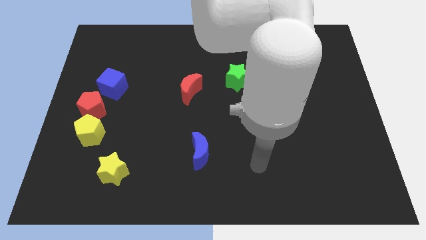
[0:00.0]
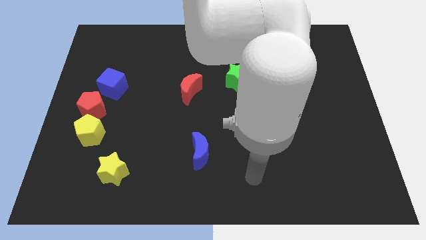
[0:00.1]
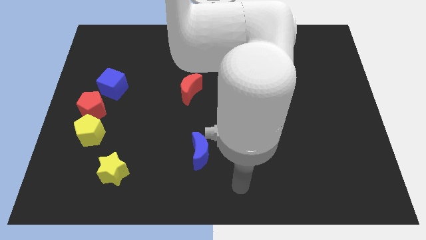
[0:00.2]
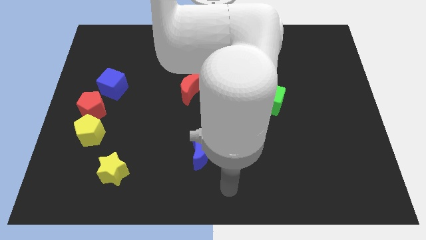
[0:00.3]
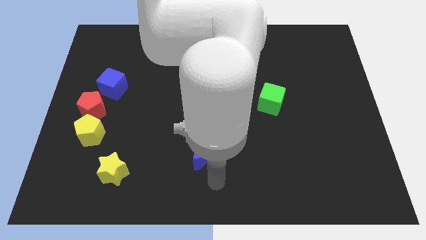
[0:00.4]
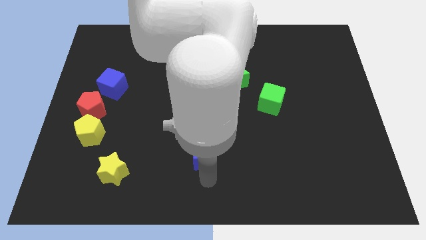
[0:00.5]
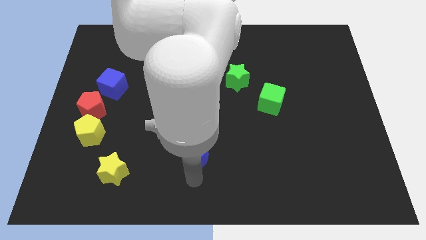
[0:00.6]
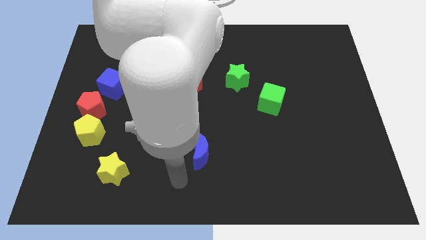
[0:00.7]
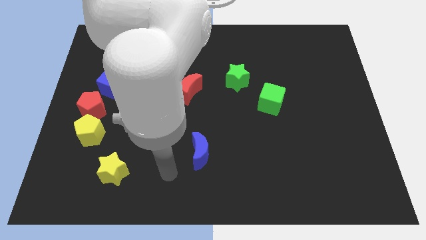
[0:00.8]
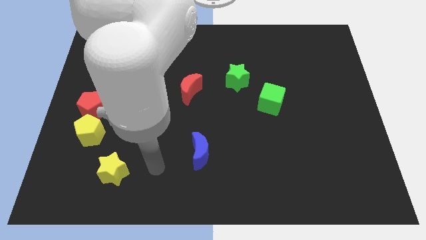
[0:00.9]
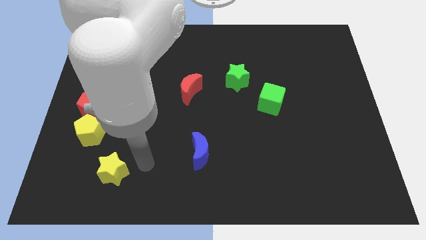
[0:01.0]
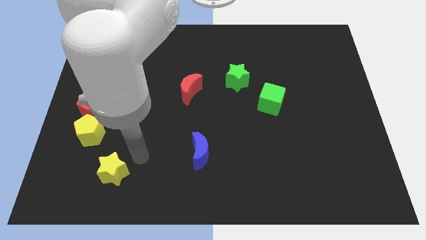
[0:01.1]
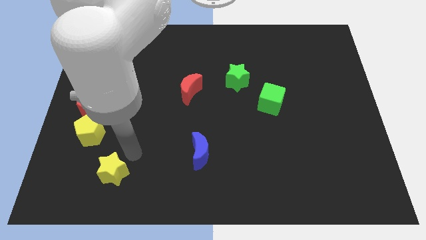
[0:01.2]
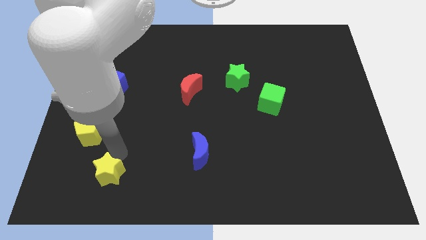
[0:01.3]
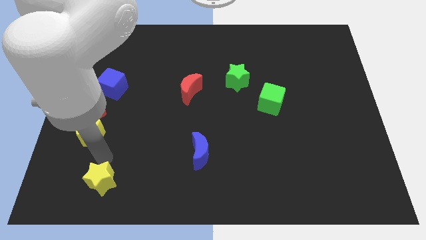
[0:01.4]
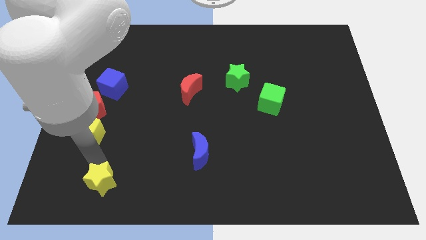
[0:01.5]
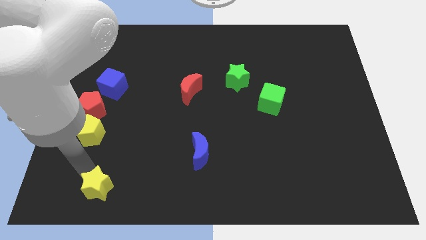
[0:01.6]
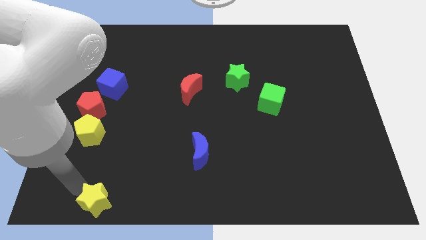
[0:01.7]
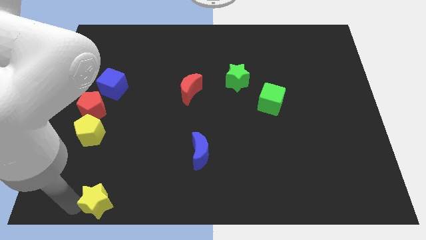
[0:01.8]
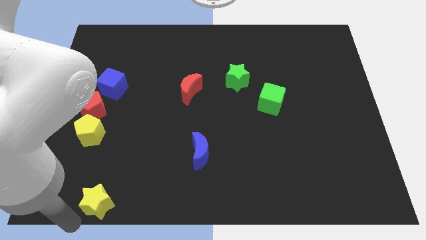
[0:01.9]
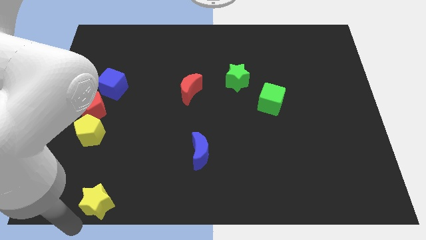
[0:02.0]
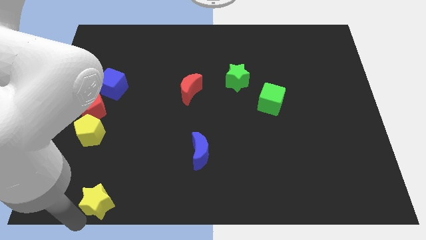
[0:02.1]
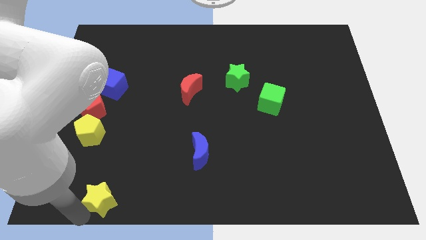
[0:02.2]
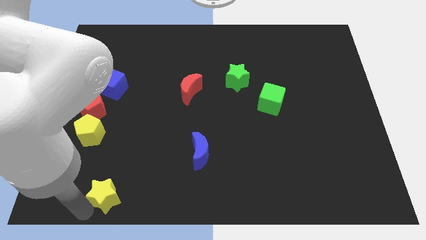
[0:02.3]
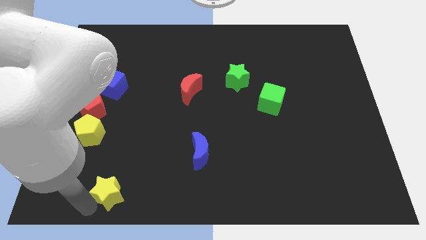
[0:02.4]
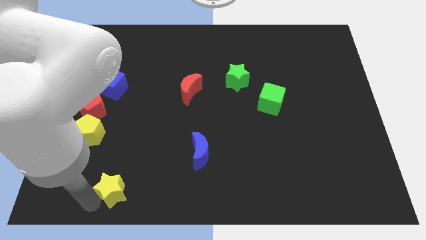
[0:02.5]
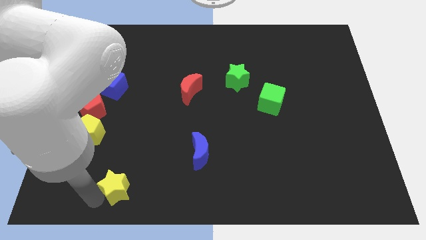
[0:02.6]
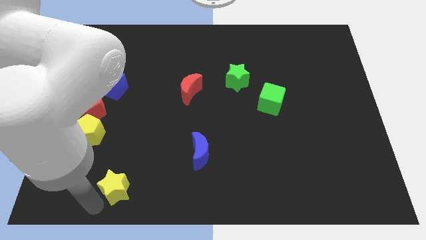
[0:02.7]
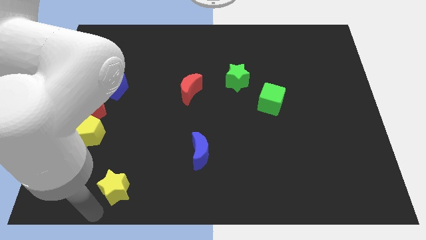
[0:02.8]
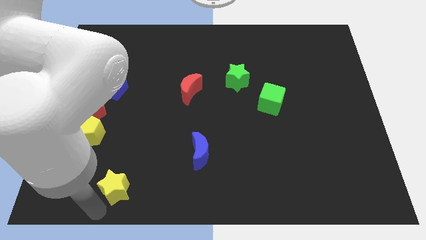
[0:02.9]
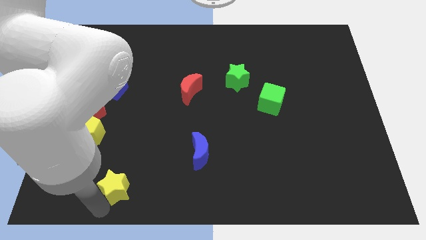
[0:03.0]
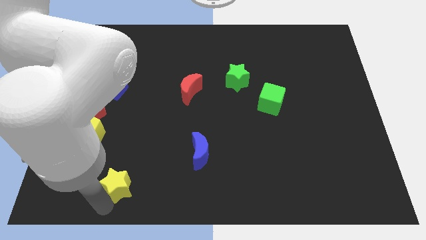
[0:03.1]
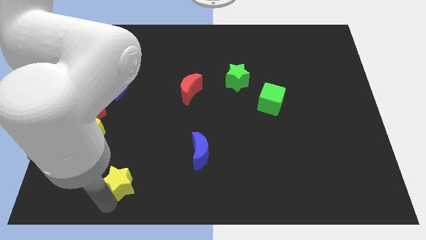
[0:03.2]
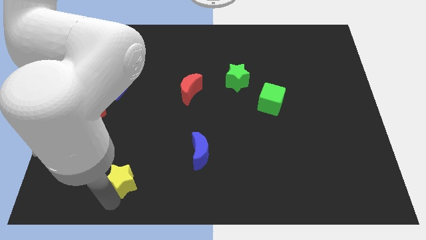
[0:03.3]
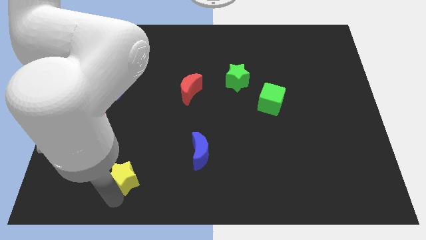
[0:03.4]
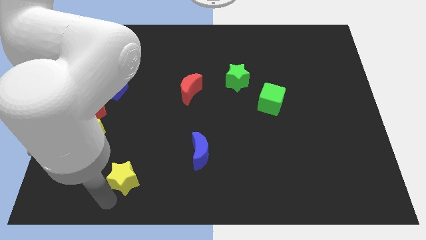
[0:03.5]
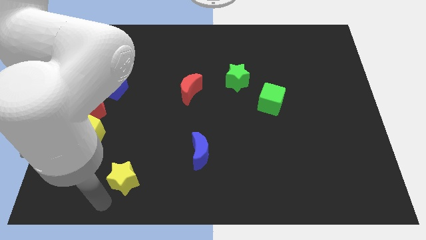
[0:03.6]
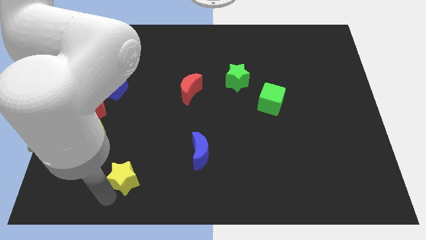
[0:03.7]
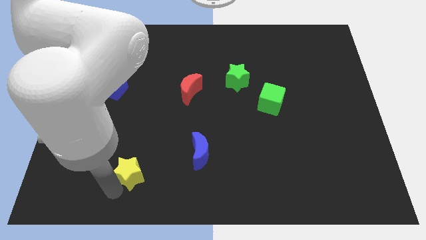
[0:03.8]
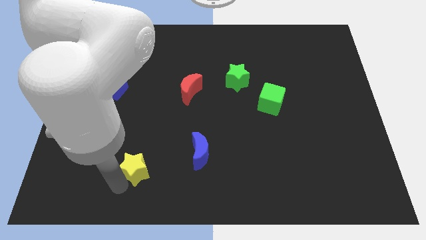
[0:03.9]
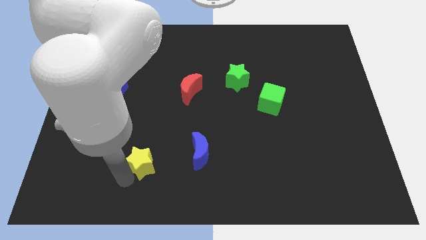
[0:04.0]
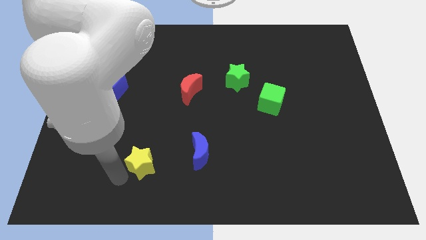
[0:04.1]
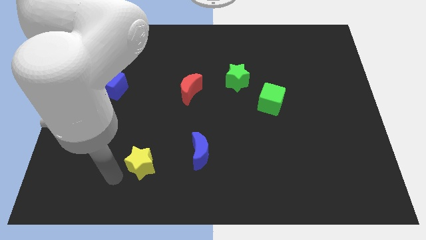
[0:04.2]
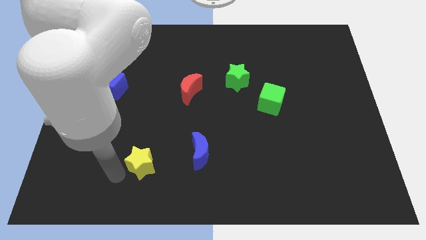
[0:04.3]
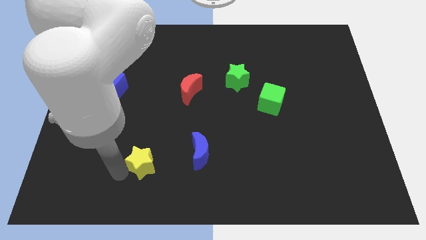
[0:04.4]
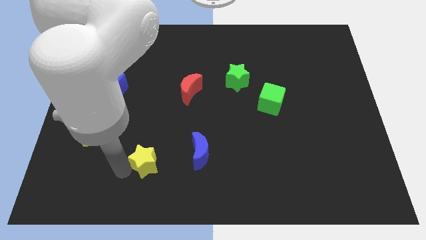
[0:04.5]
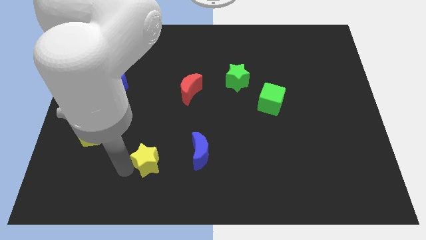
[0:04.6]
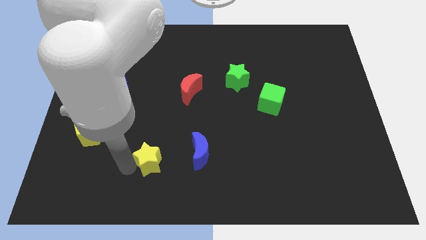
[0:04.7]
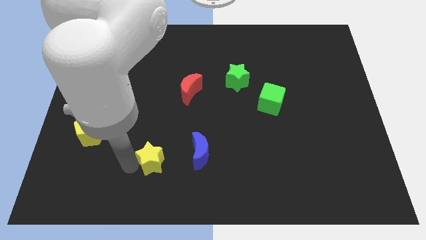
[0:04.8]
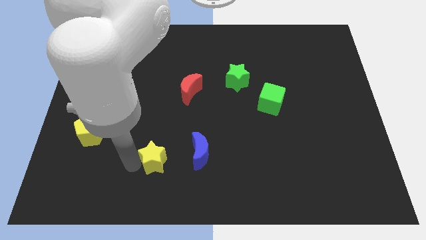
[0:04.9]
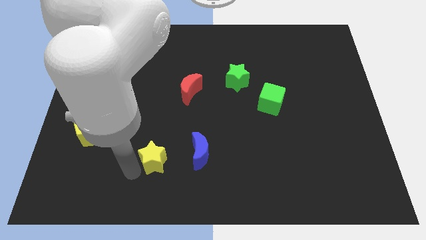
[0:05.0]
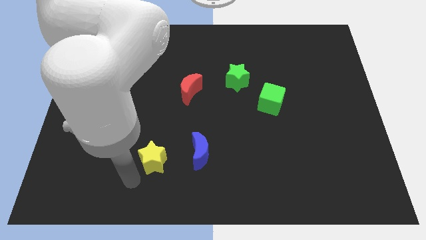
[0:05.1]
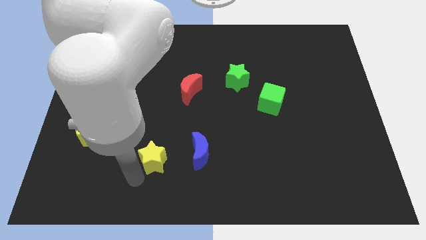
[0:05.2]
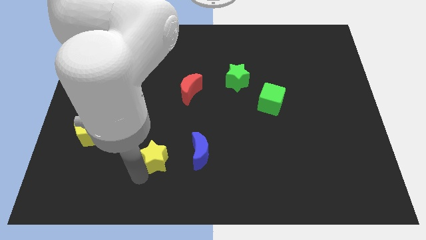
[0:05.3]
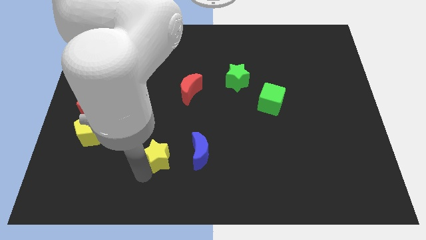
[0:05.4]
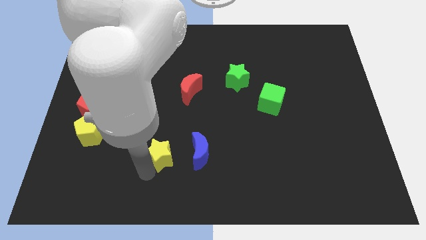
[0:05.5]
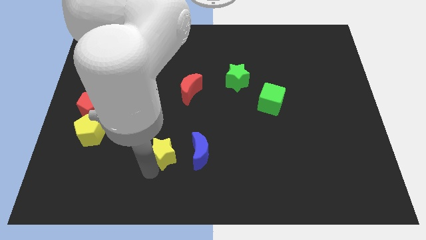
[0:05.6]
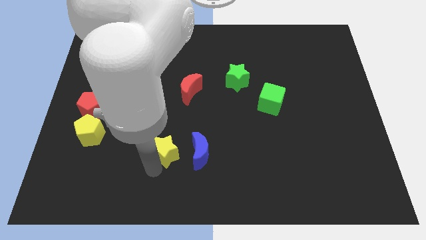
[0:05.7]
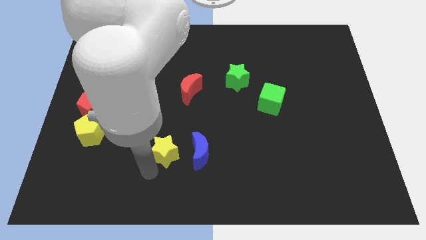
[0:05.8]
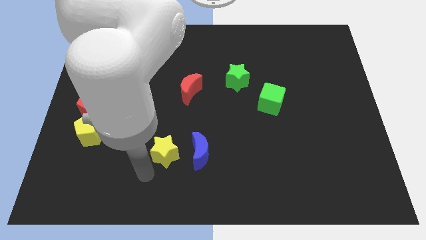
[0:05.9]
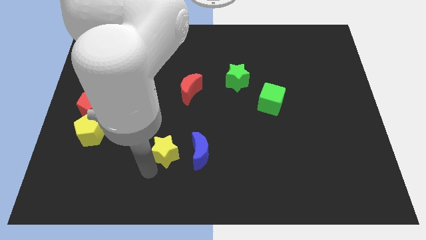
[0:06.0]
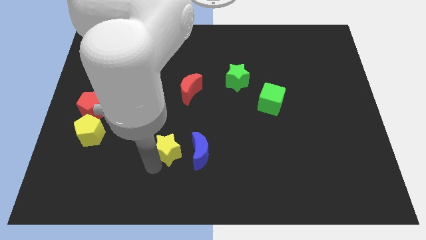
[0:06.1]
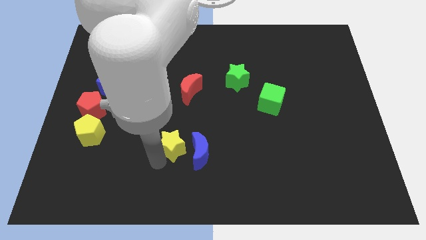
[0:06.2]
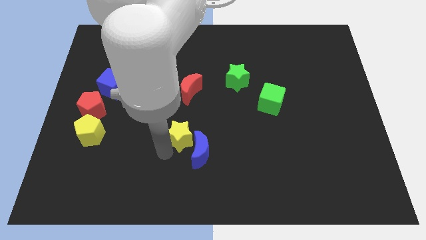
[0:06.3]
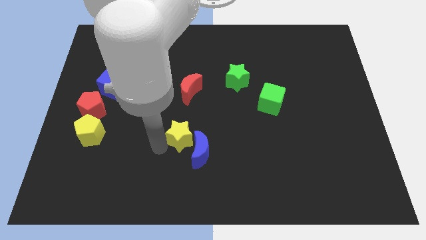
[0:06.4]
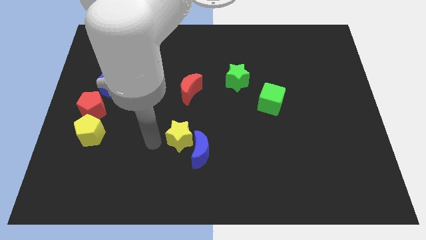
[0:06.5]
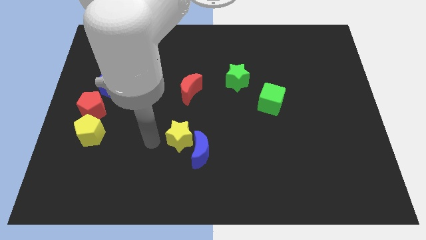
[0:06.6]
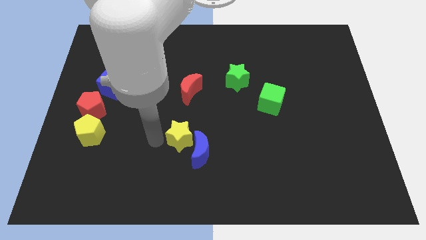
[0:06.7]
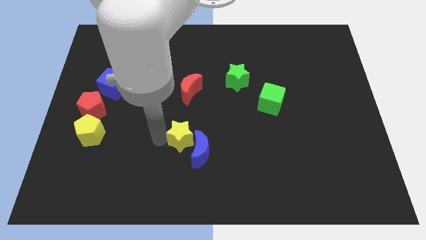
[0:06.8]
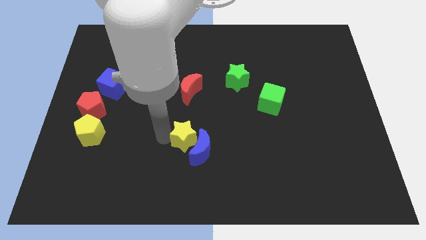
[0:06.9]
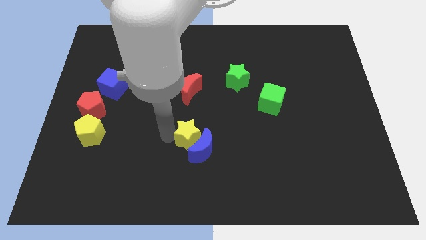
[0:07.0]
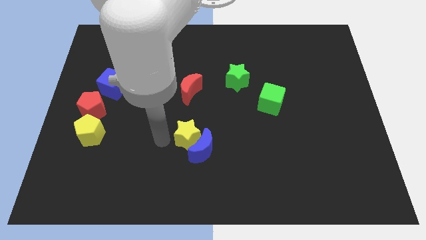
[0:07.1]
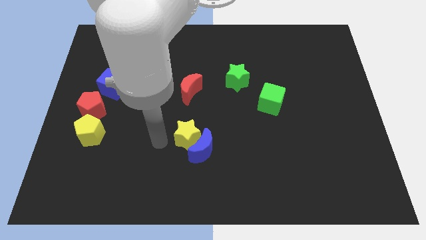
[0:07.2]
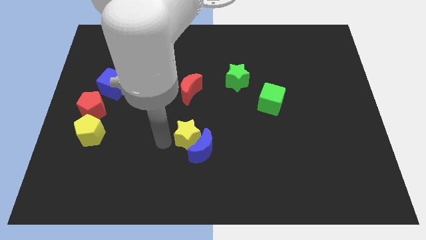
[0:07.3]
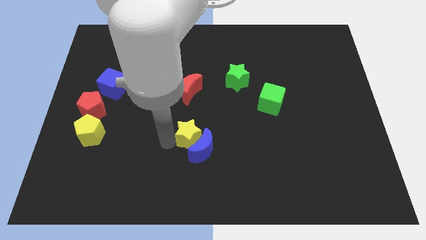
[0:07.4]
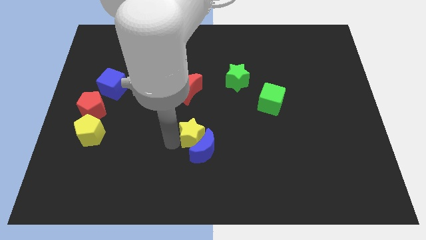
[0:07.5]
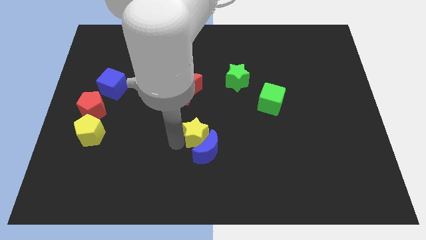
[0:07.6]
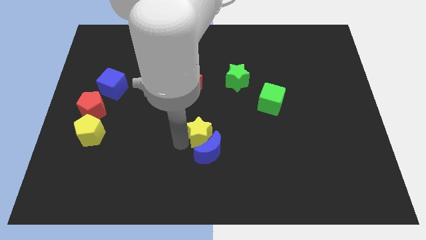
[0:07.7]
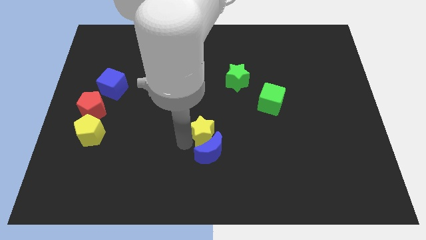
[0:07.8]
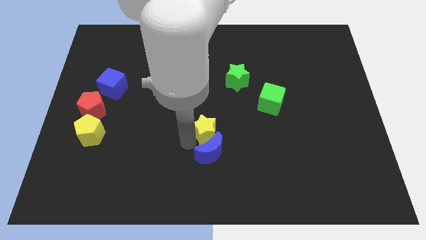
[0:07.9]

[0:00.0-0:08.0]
slide the yellow star to the top right side of the blue moon

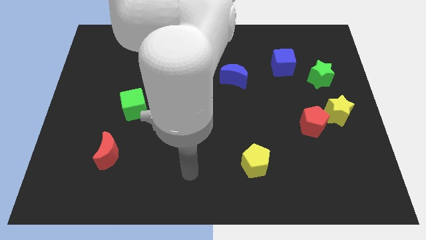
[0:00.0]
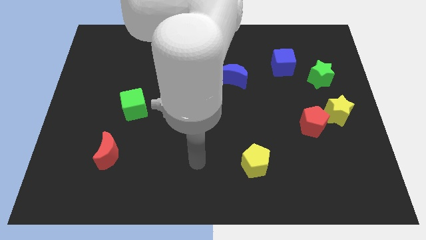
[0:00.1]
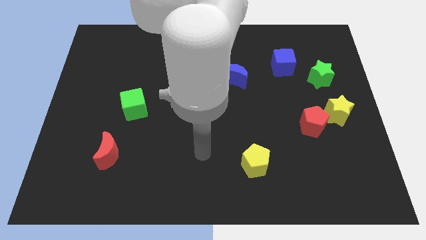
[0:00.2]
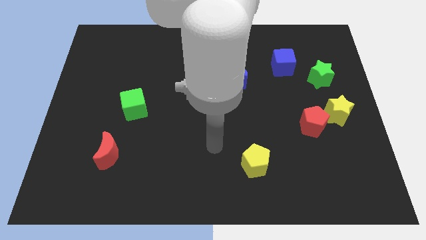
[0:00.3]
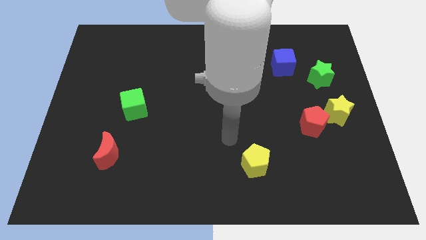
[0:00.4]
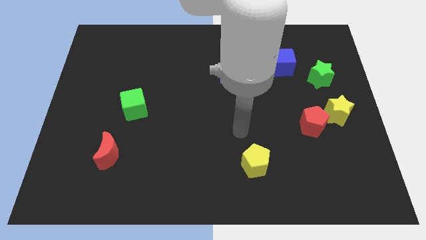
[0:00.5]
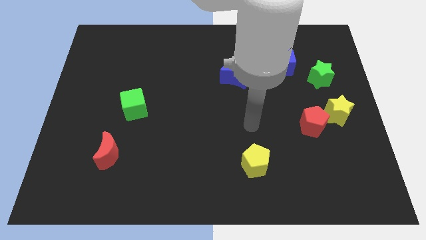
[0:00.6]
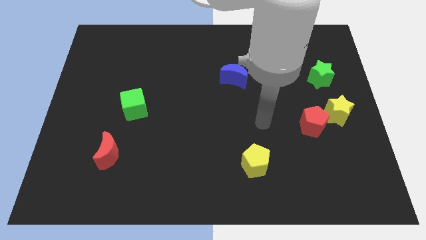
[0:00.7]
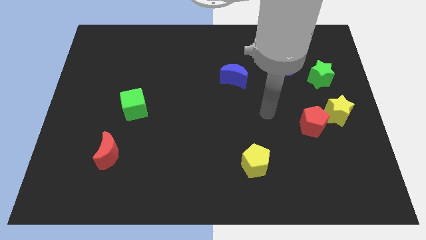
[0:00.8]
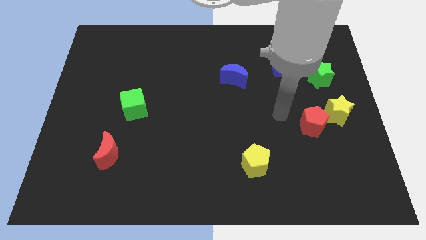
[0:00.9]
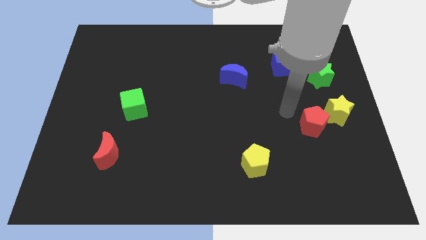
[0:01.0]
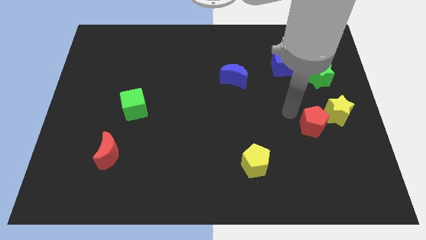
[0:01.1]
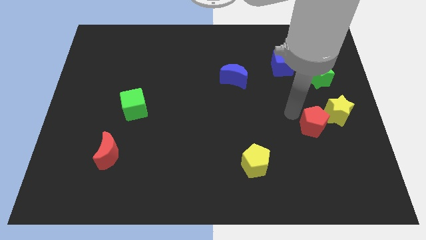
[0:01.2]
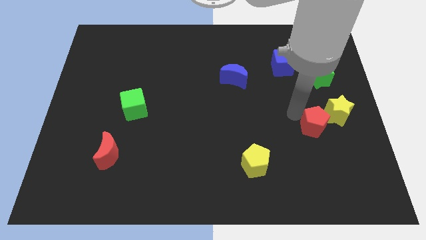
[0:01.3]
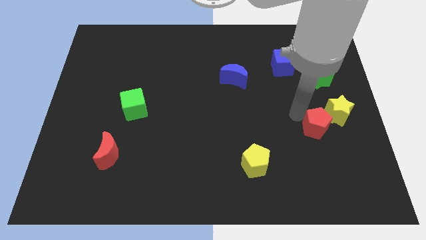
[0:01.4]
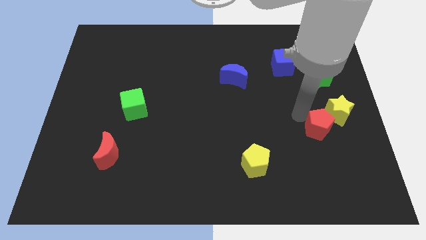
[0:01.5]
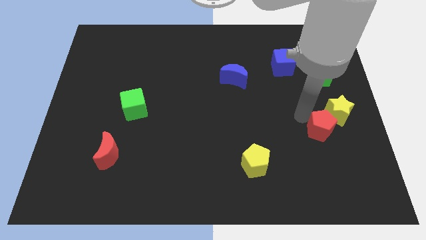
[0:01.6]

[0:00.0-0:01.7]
put the red pentagon to the bottom of the yellow star
